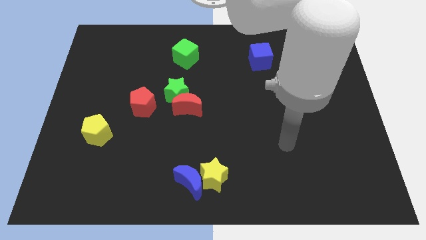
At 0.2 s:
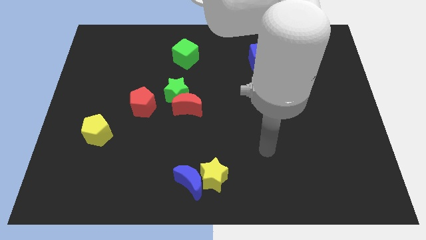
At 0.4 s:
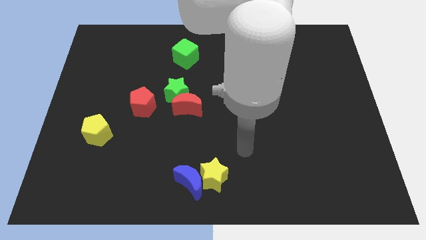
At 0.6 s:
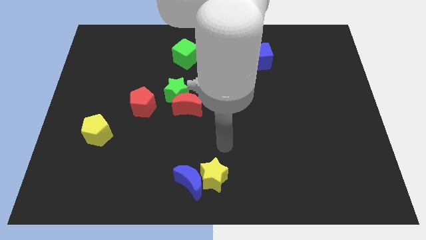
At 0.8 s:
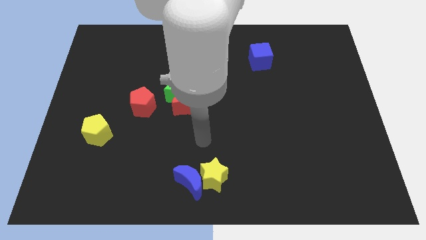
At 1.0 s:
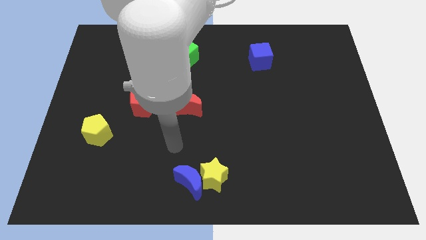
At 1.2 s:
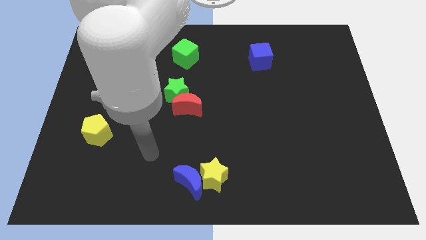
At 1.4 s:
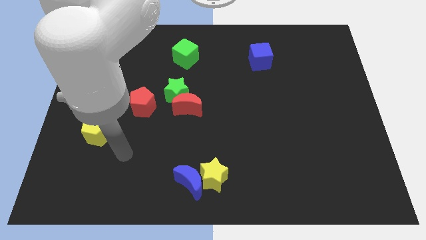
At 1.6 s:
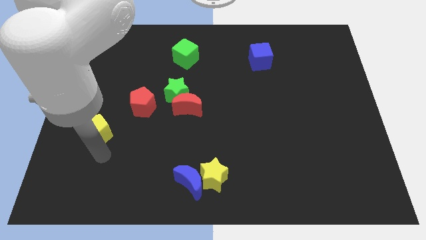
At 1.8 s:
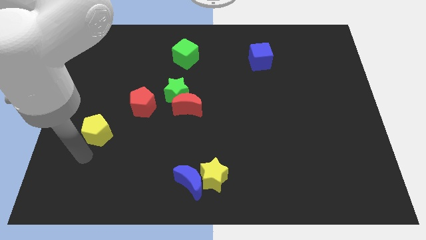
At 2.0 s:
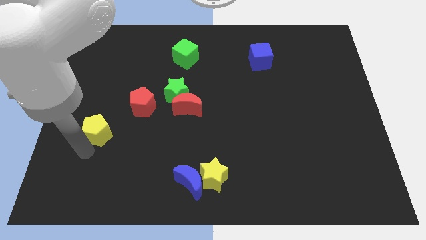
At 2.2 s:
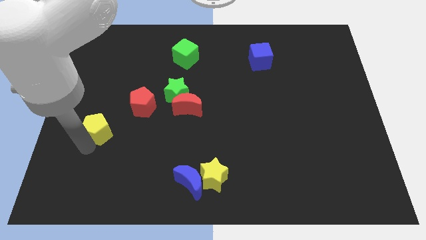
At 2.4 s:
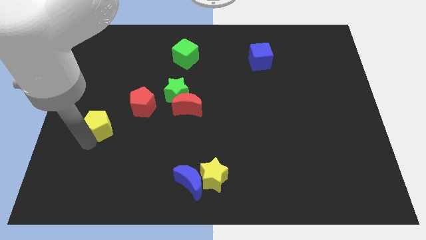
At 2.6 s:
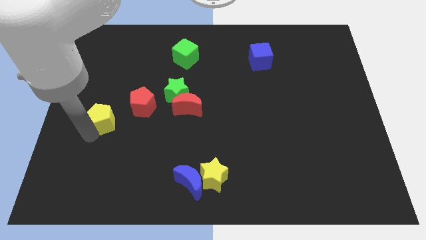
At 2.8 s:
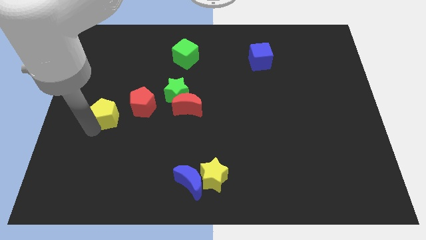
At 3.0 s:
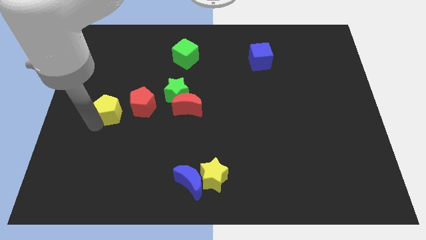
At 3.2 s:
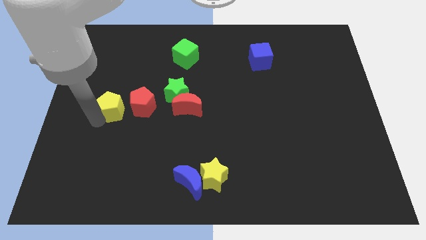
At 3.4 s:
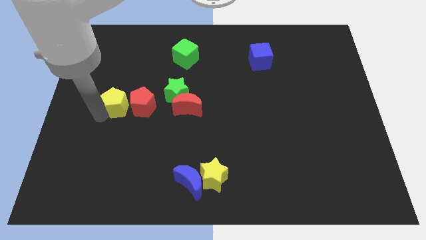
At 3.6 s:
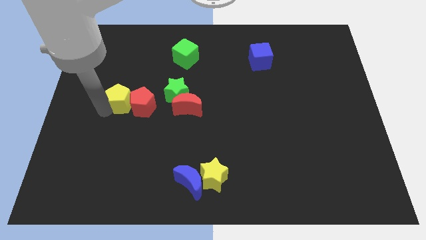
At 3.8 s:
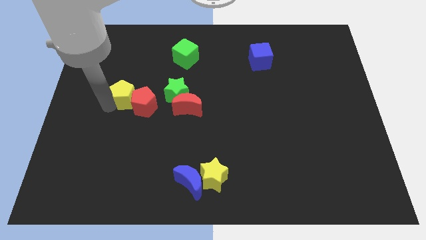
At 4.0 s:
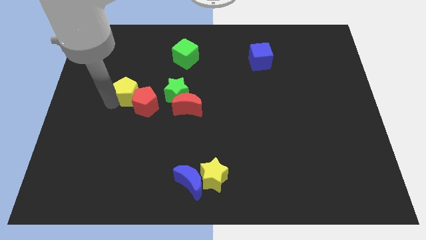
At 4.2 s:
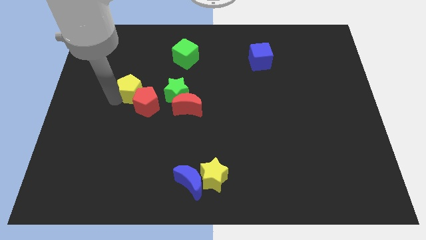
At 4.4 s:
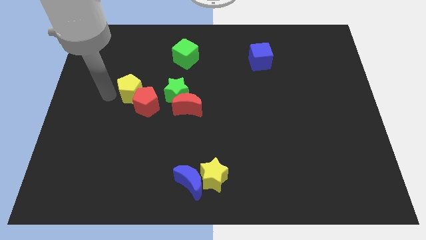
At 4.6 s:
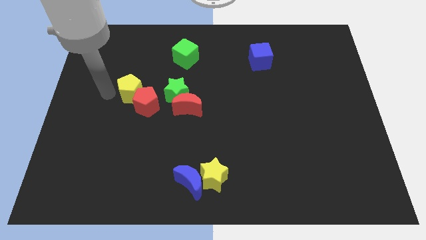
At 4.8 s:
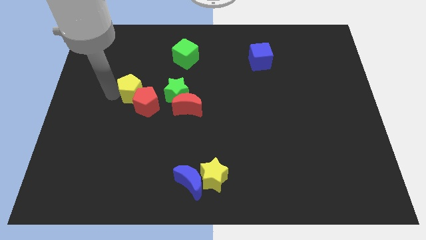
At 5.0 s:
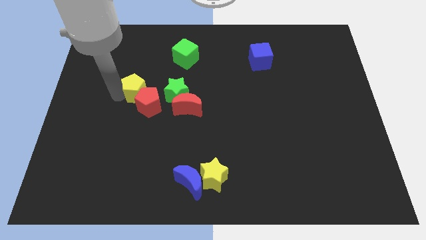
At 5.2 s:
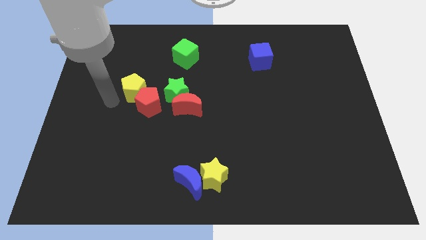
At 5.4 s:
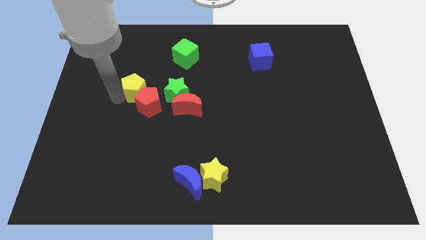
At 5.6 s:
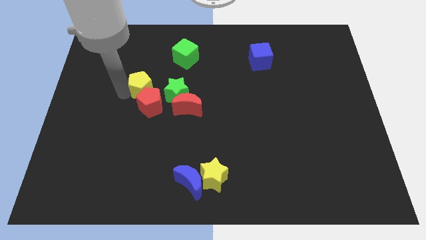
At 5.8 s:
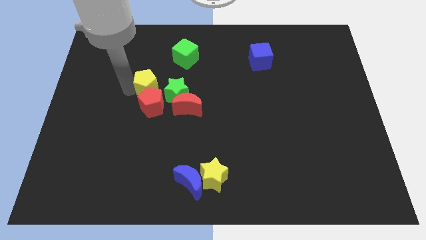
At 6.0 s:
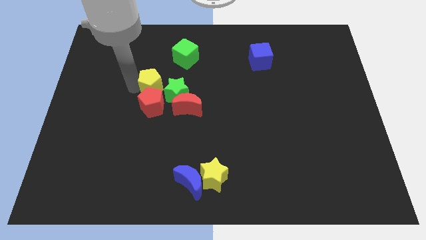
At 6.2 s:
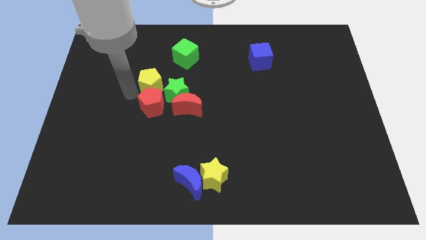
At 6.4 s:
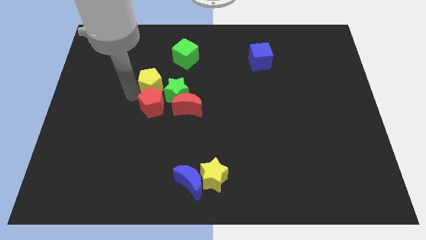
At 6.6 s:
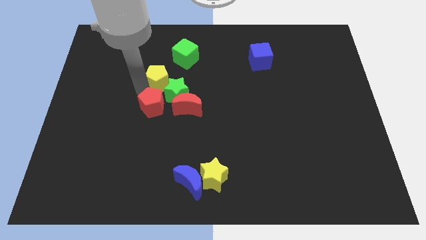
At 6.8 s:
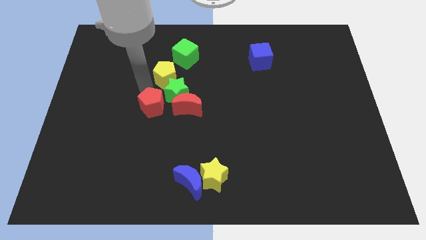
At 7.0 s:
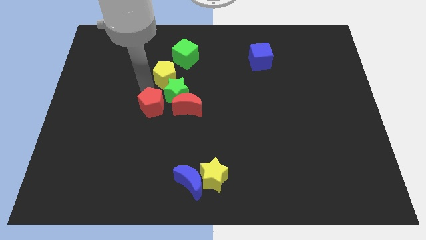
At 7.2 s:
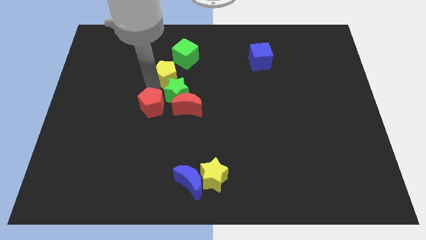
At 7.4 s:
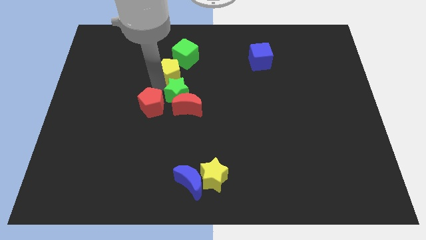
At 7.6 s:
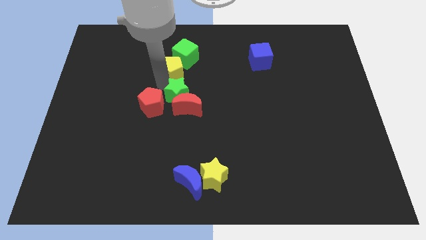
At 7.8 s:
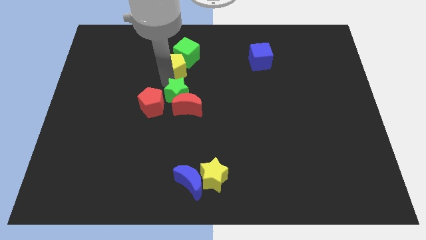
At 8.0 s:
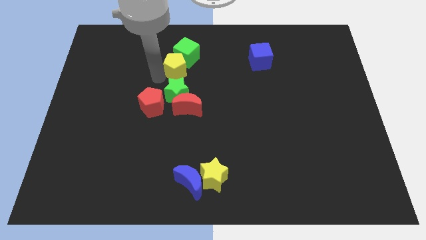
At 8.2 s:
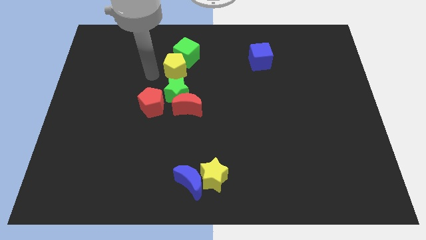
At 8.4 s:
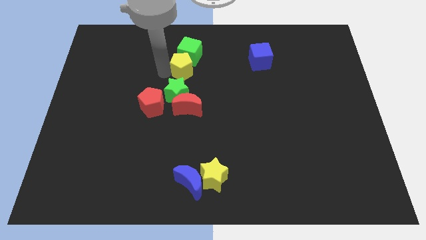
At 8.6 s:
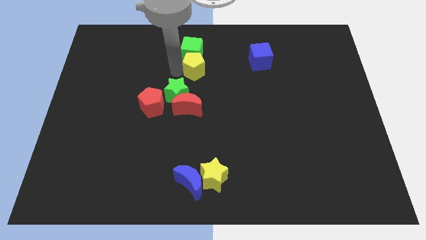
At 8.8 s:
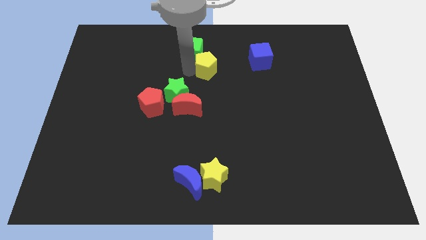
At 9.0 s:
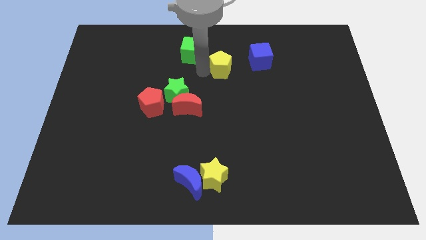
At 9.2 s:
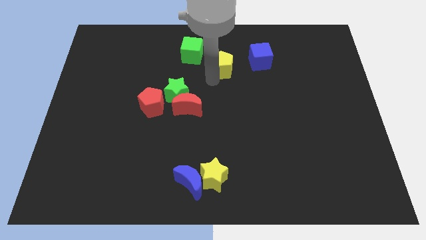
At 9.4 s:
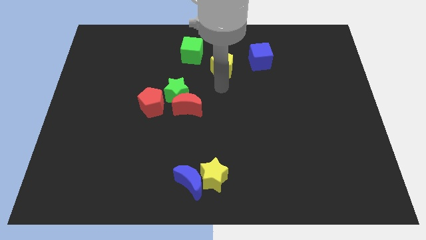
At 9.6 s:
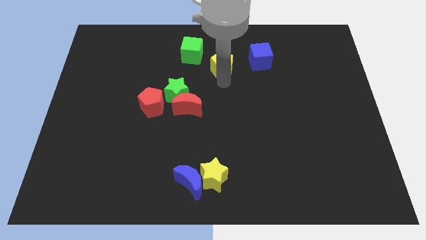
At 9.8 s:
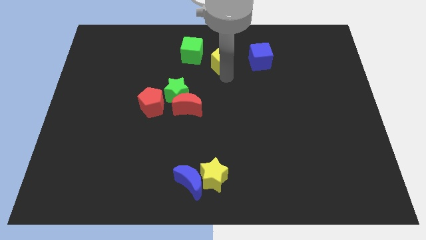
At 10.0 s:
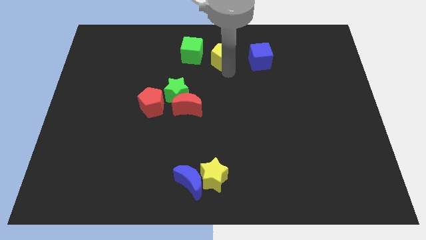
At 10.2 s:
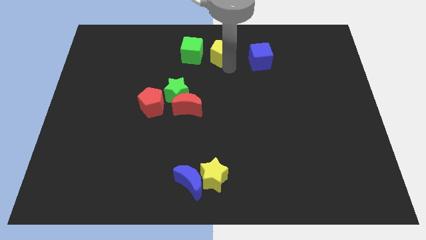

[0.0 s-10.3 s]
slide the yellow pentagon to the top
